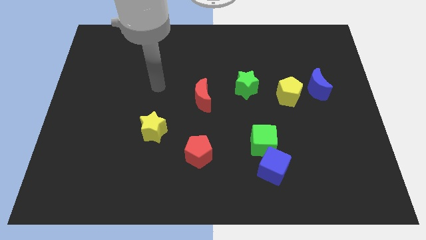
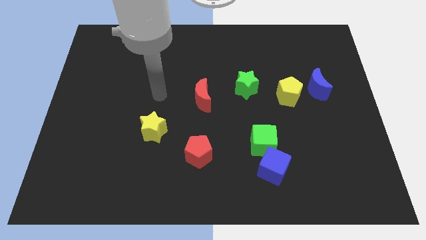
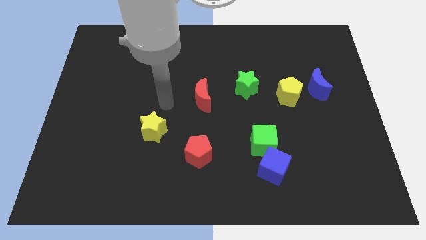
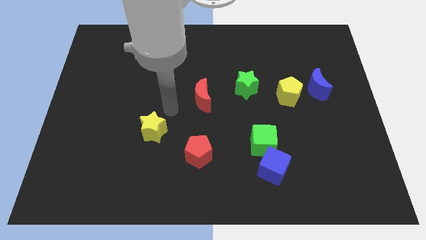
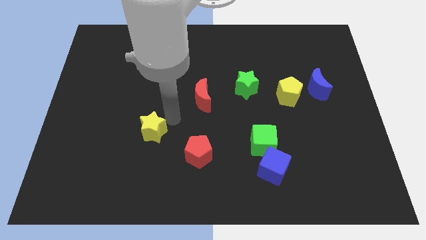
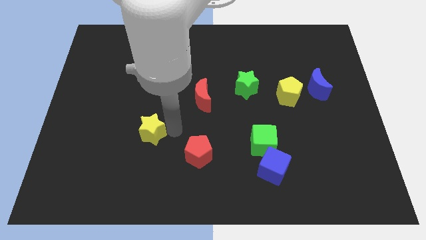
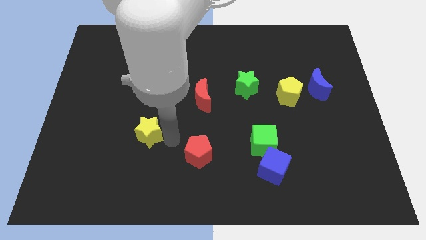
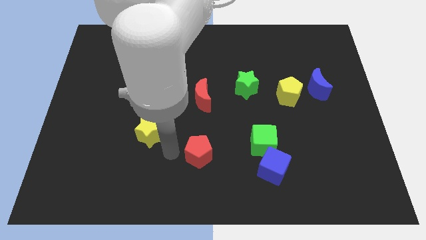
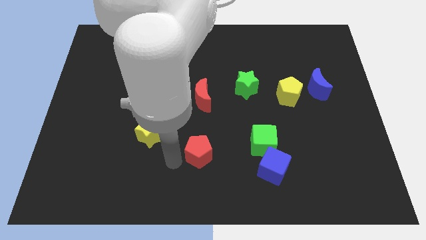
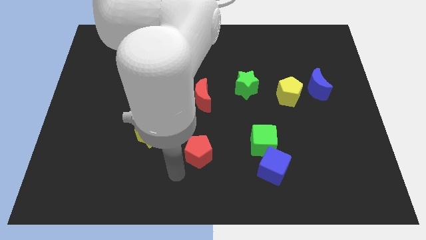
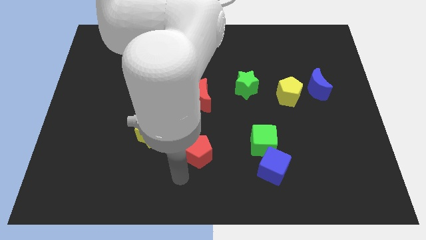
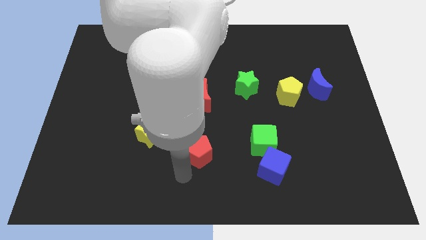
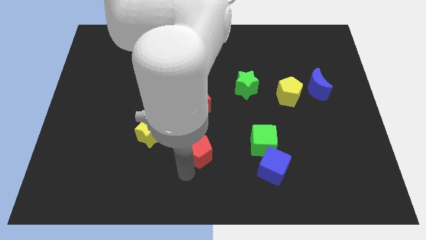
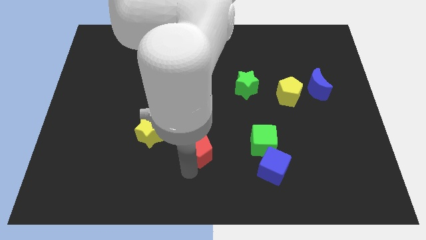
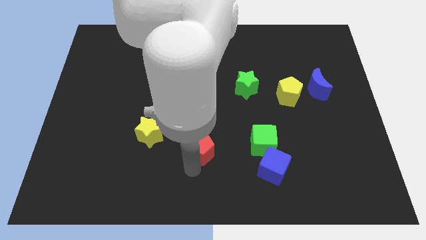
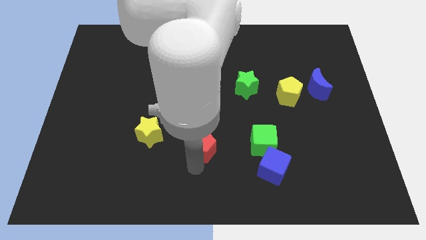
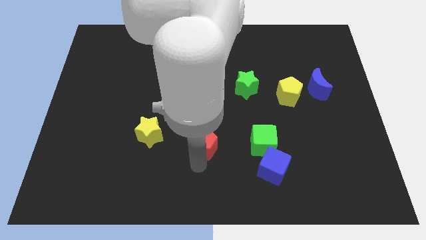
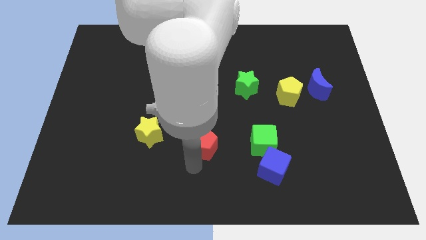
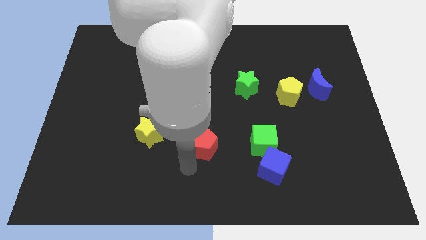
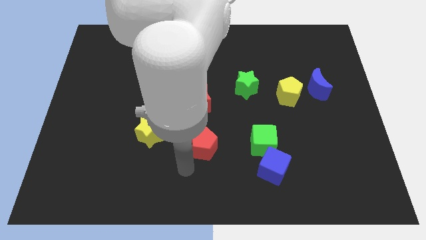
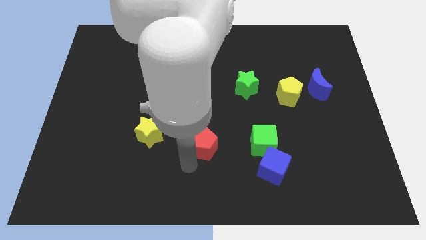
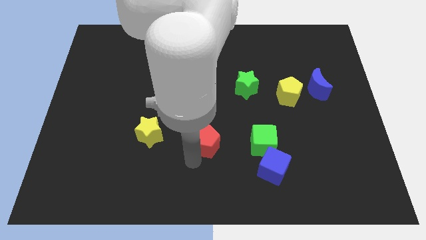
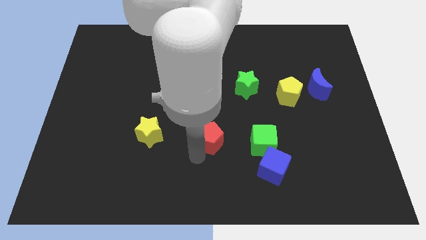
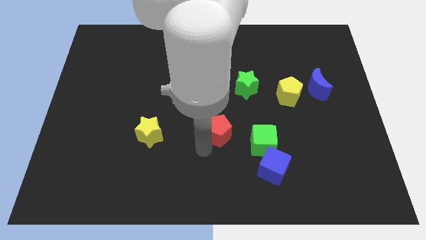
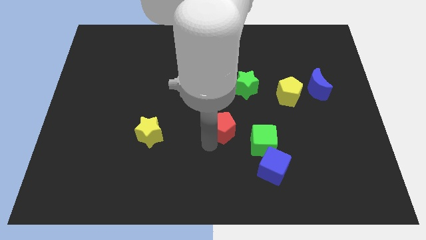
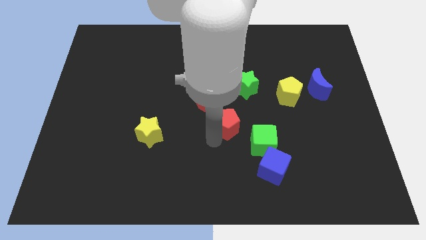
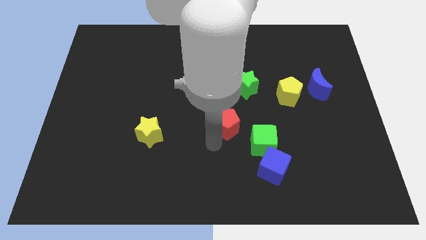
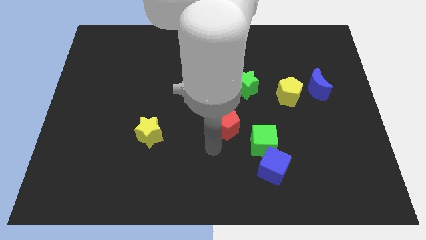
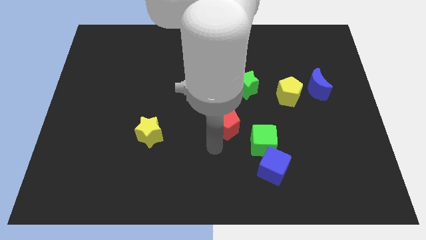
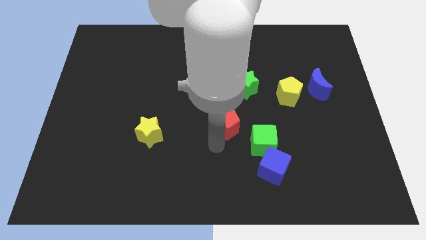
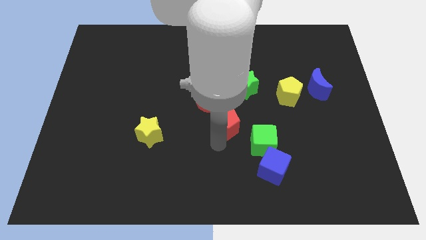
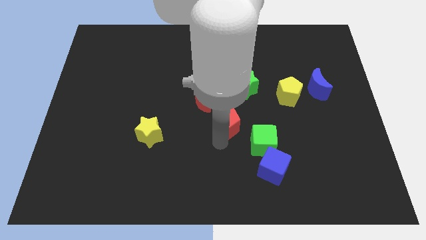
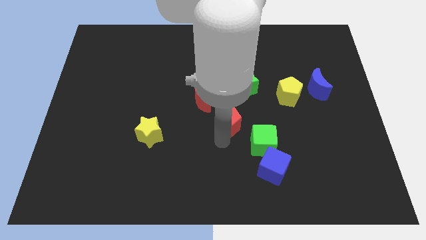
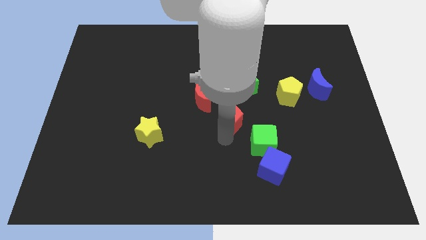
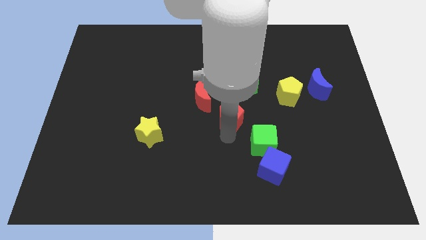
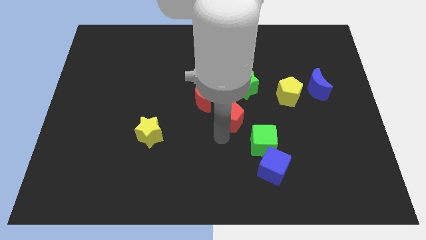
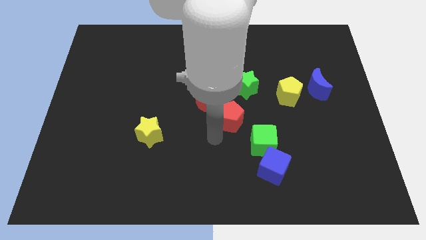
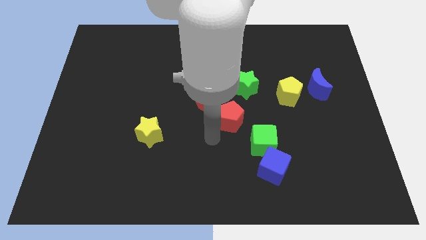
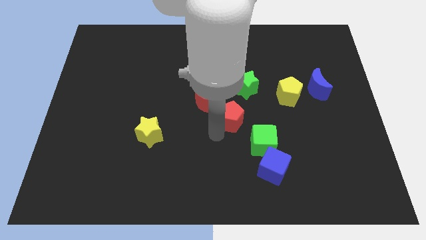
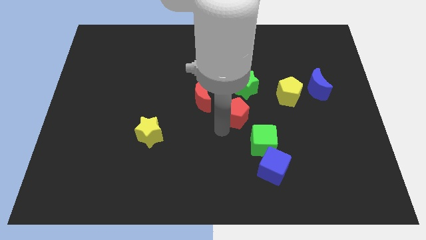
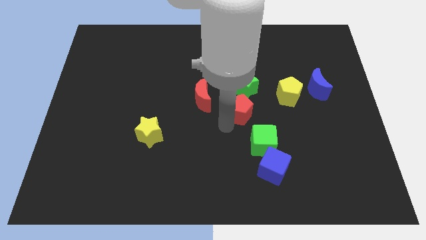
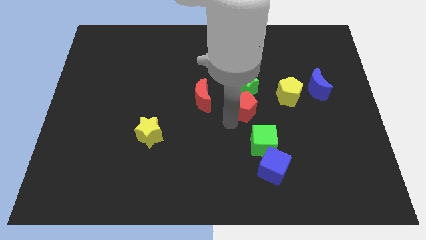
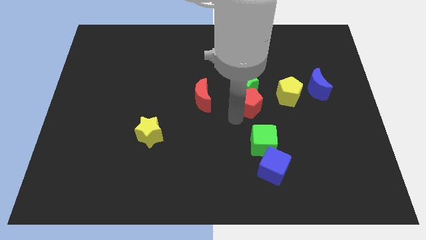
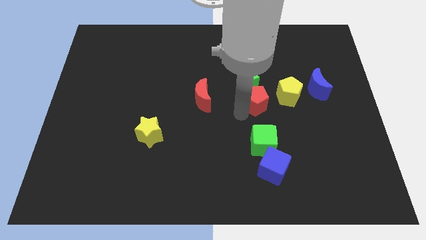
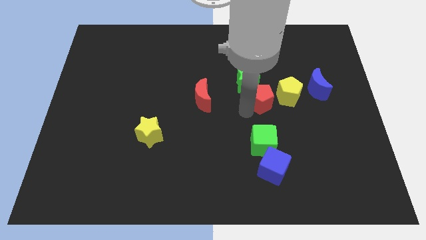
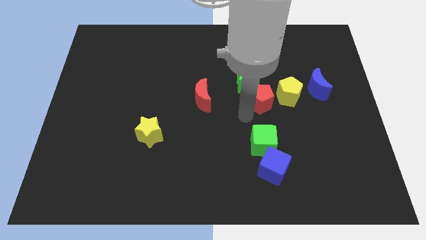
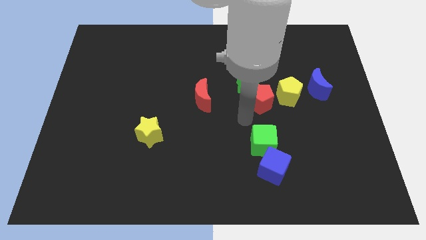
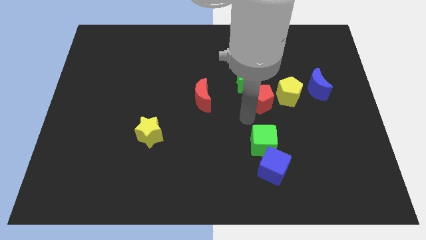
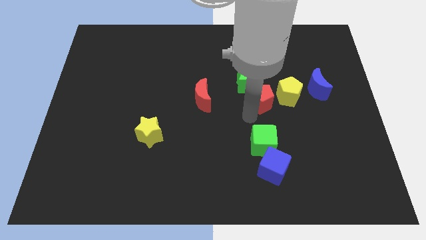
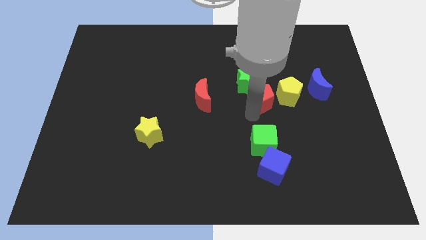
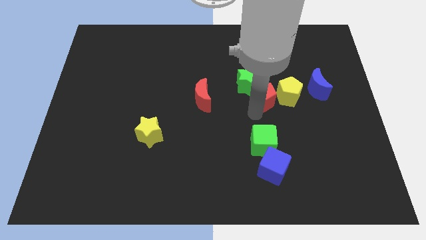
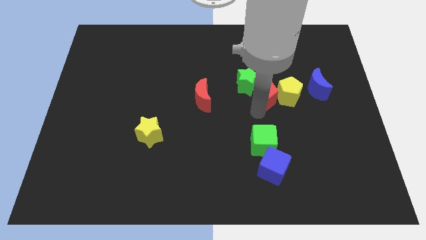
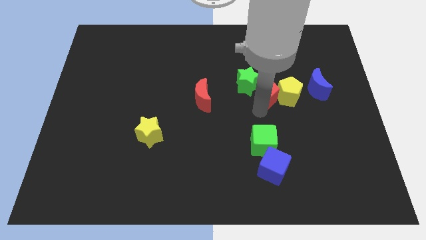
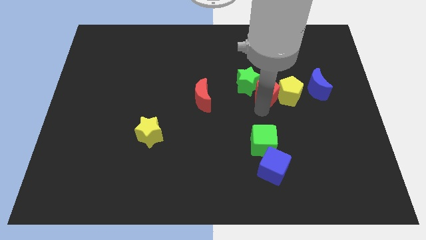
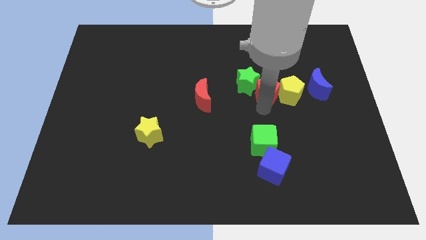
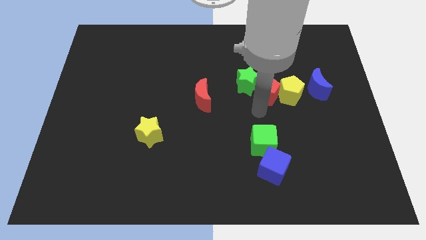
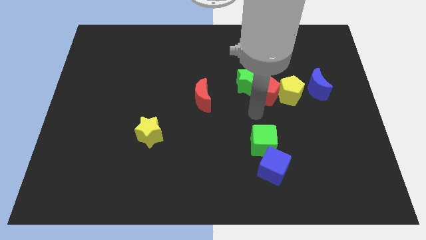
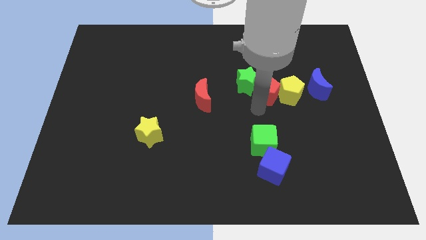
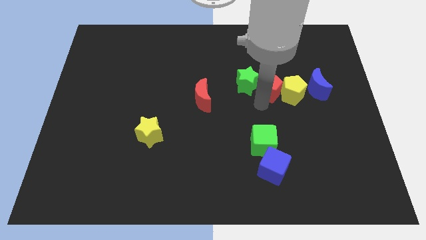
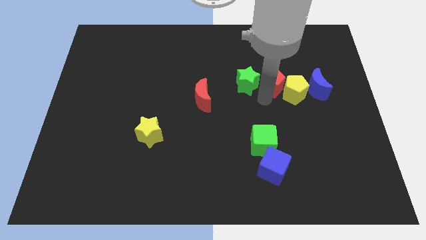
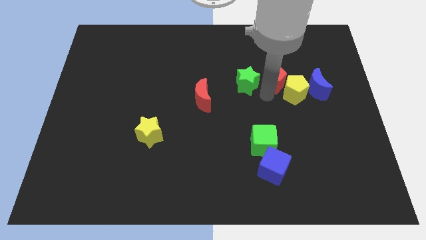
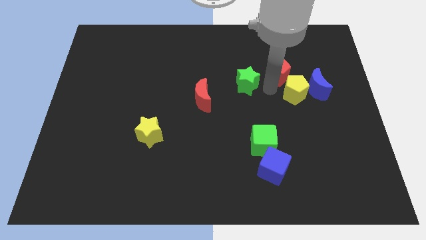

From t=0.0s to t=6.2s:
slide the red pentagon above the yellow pentagon
